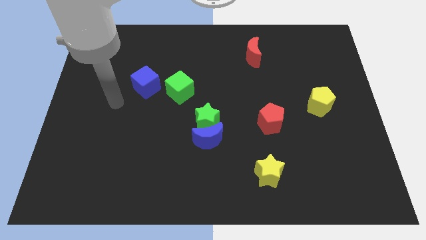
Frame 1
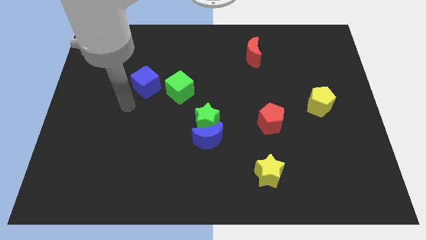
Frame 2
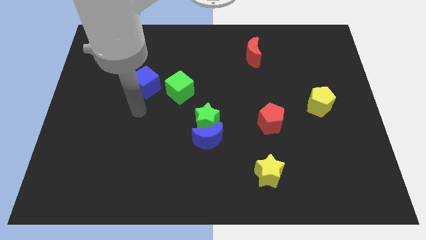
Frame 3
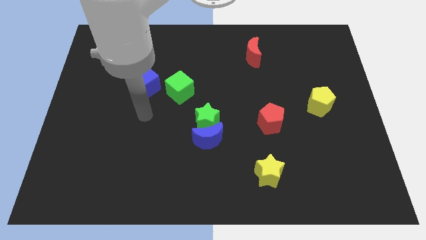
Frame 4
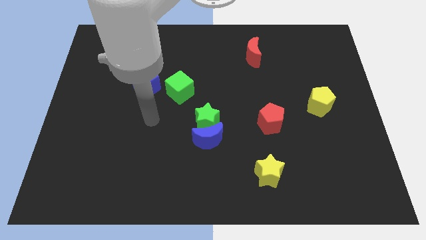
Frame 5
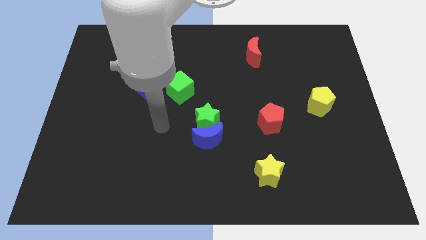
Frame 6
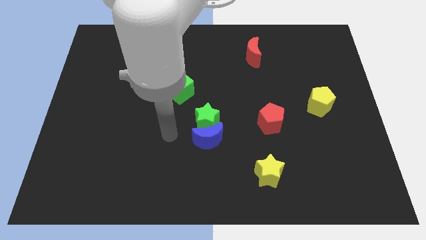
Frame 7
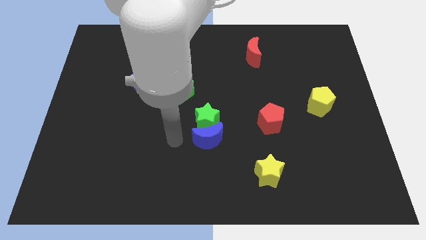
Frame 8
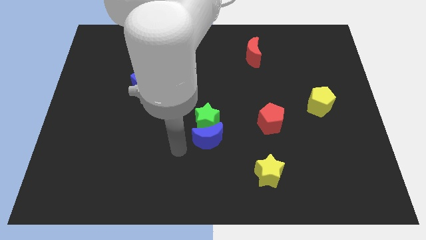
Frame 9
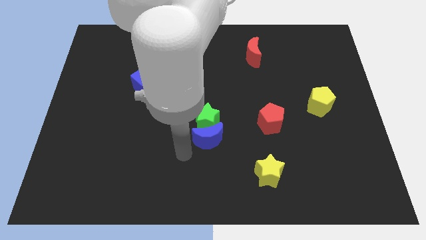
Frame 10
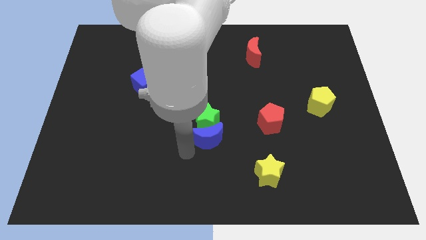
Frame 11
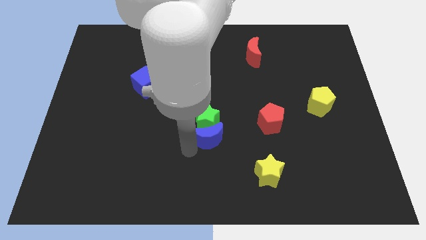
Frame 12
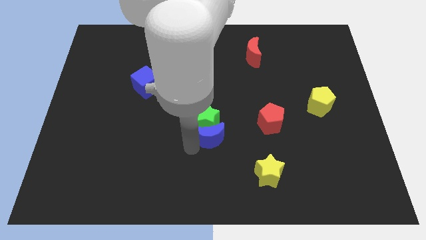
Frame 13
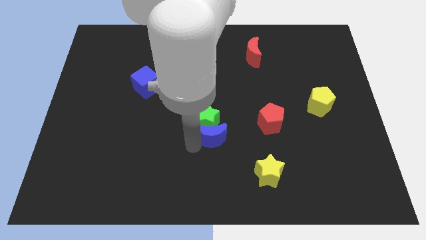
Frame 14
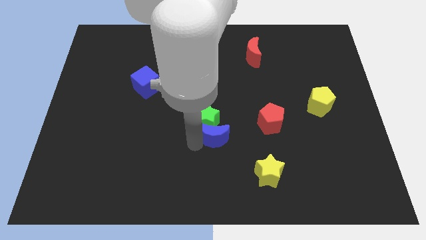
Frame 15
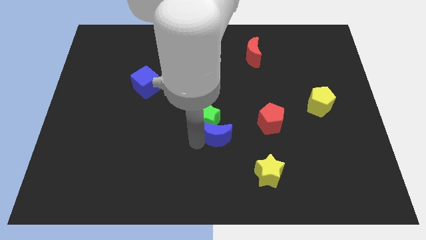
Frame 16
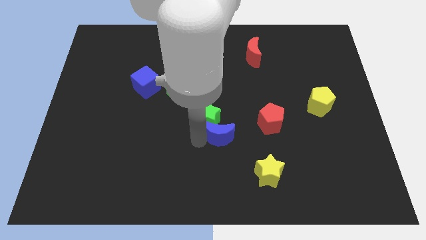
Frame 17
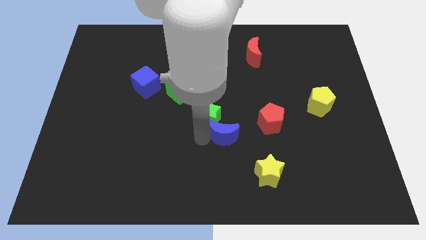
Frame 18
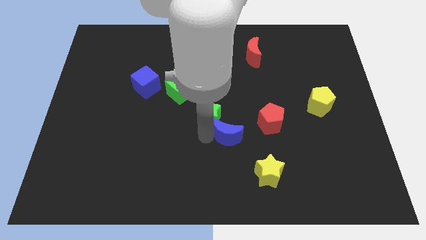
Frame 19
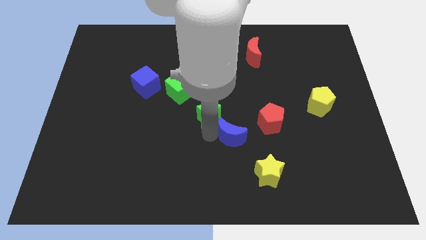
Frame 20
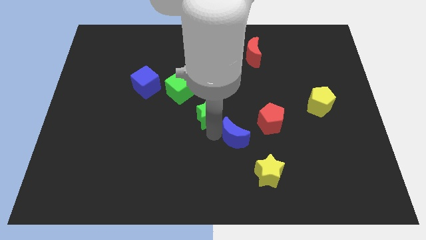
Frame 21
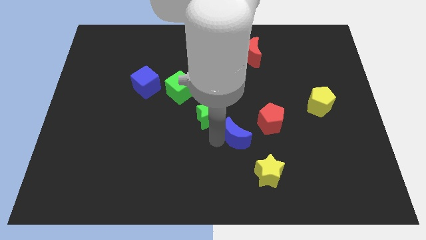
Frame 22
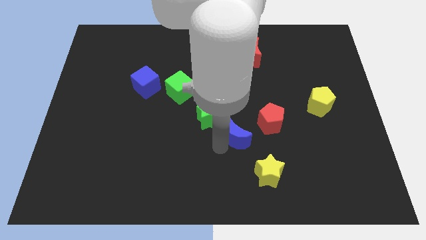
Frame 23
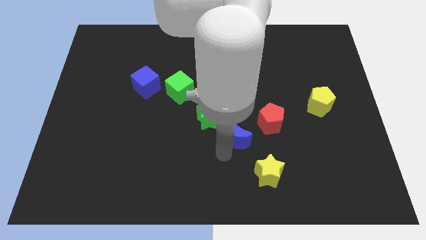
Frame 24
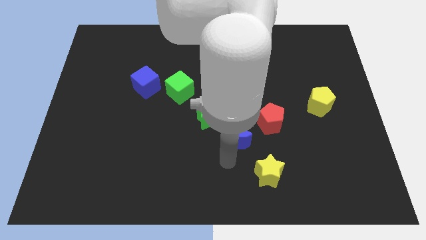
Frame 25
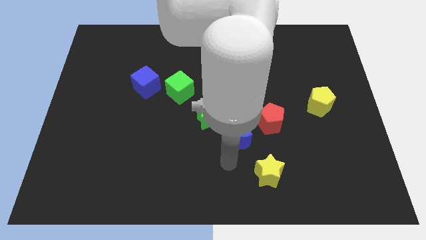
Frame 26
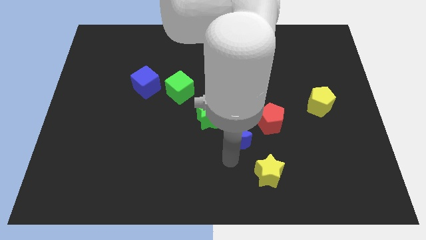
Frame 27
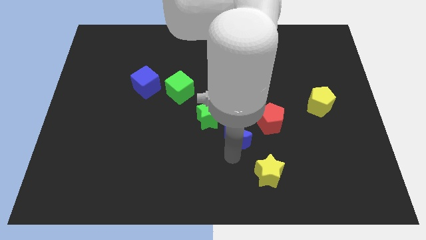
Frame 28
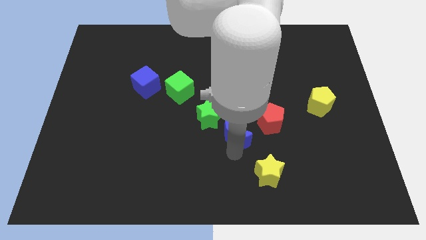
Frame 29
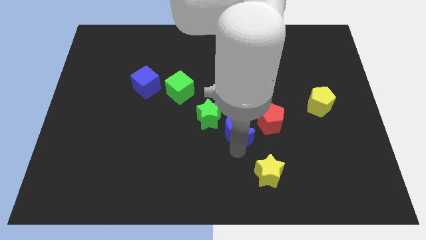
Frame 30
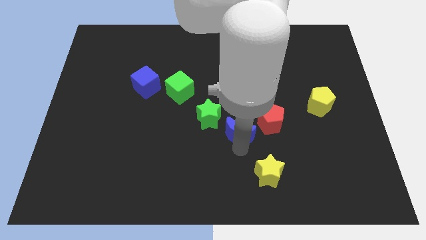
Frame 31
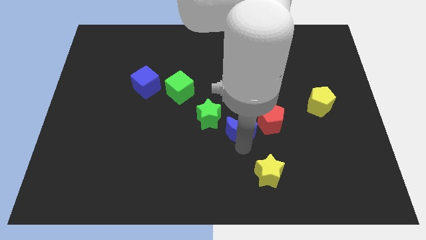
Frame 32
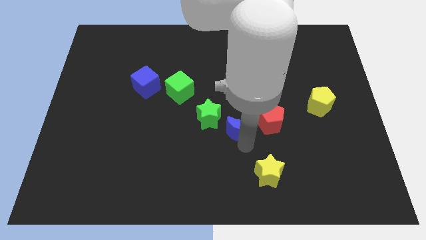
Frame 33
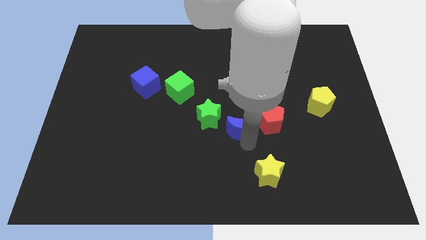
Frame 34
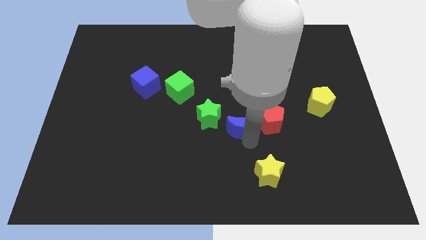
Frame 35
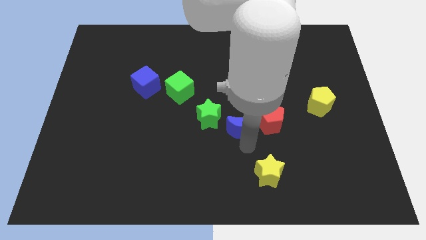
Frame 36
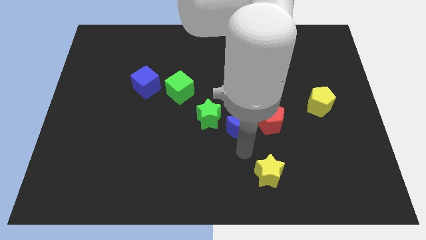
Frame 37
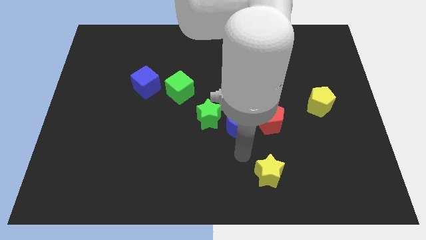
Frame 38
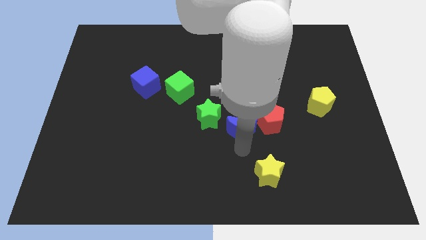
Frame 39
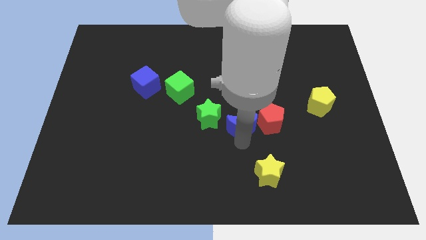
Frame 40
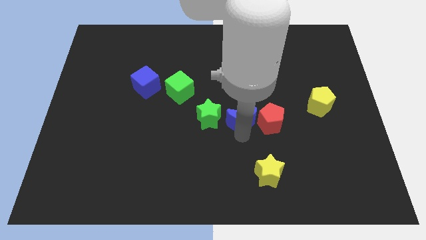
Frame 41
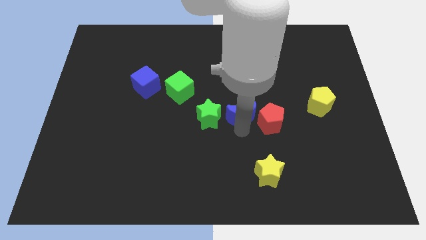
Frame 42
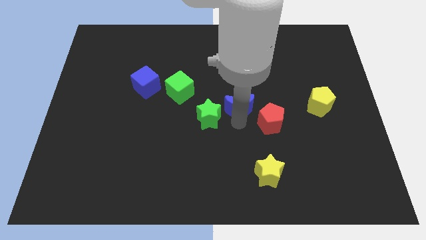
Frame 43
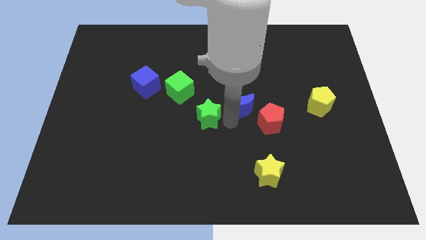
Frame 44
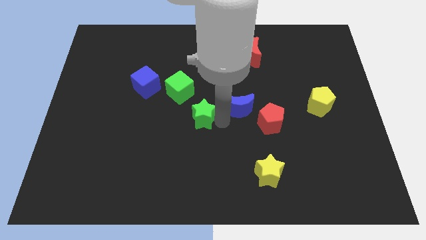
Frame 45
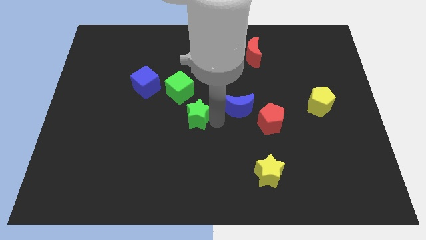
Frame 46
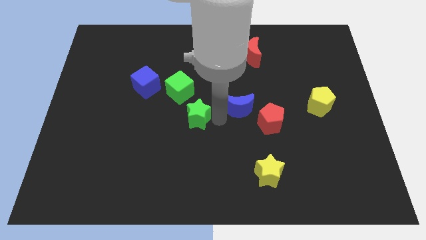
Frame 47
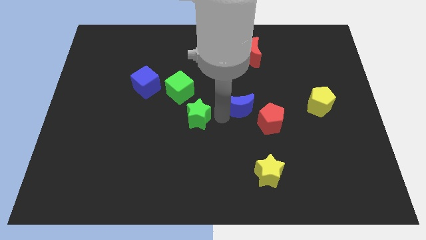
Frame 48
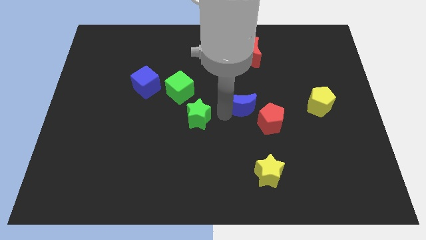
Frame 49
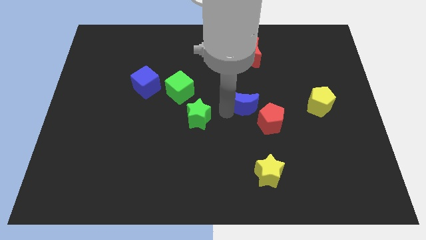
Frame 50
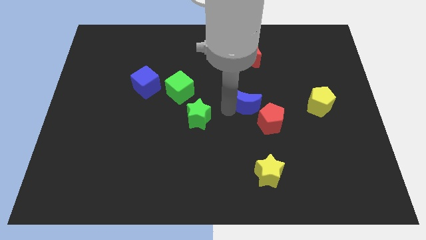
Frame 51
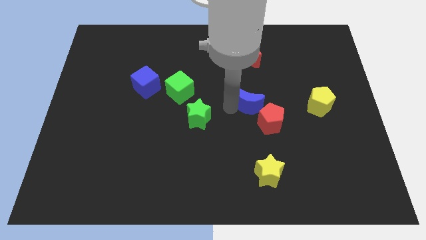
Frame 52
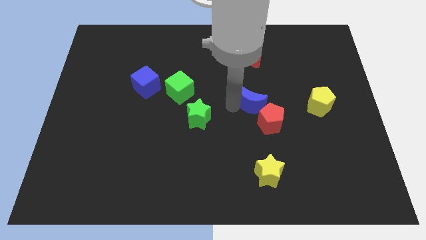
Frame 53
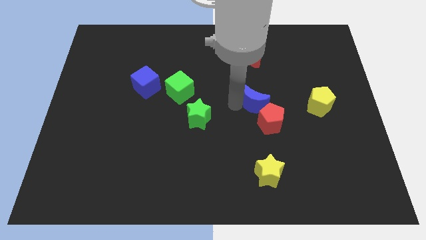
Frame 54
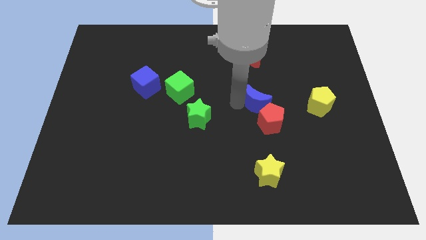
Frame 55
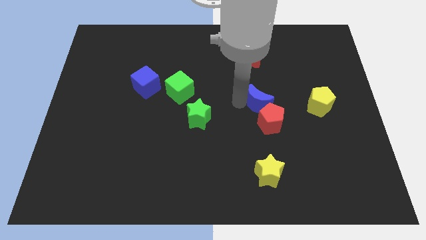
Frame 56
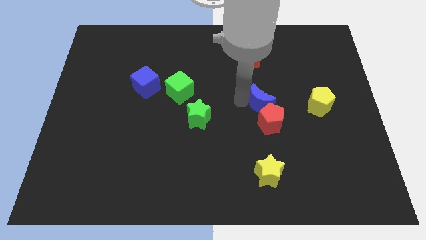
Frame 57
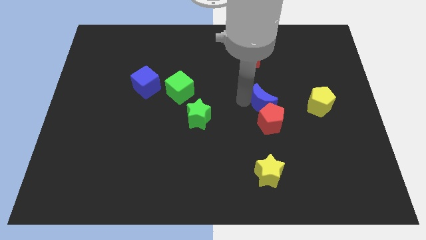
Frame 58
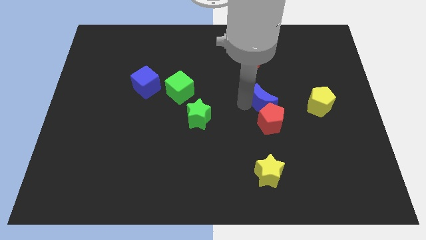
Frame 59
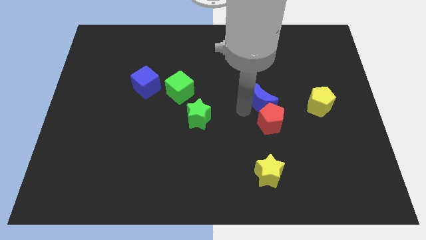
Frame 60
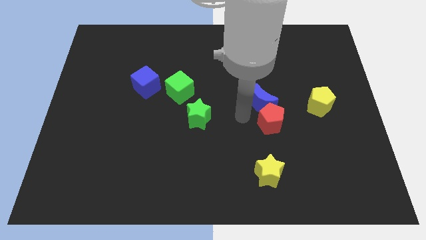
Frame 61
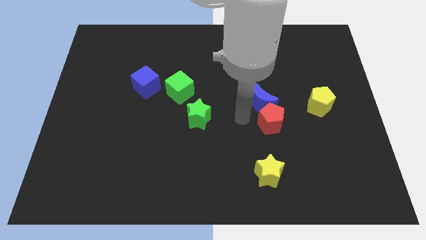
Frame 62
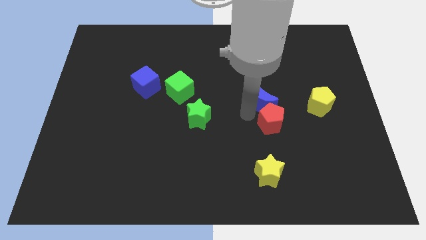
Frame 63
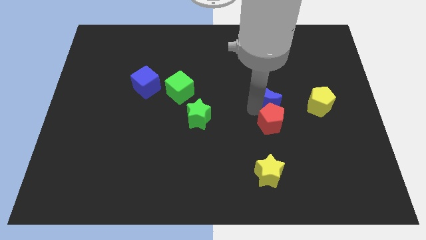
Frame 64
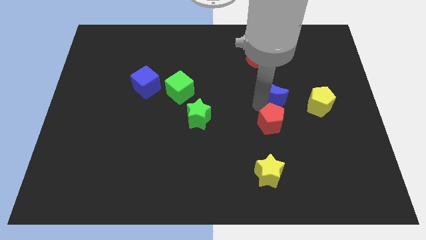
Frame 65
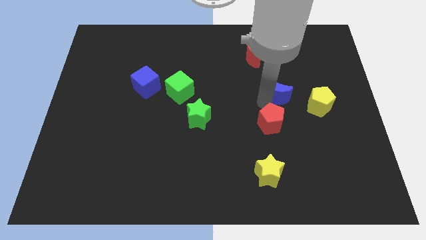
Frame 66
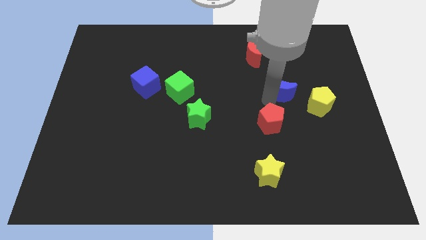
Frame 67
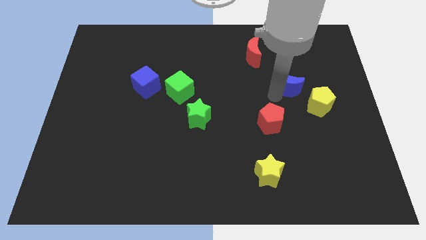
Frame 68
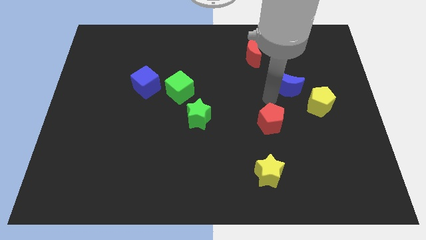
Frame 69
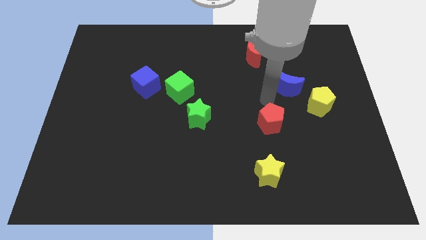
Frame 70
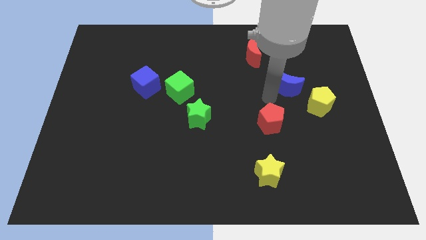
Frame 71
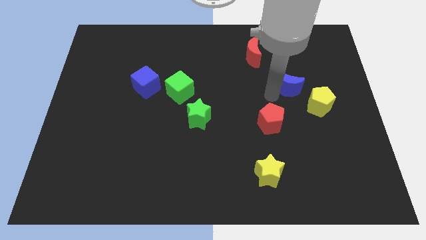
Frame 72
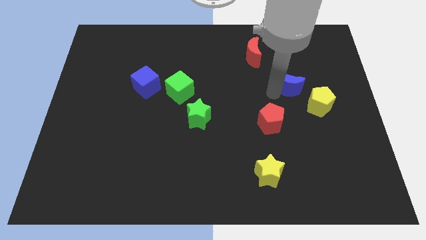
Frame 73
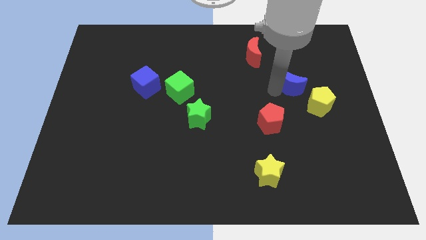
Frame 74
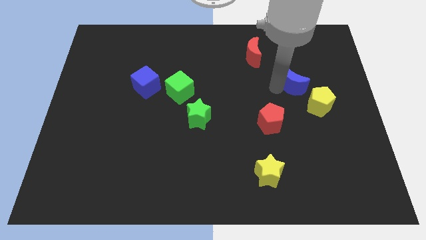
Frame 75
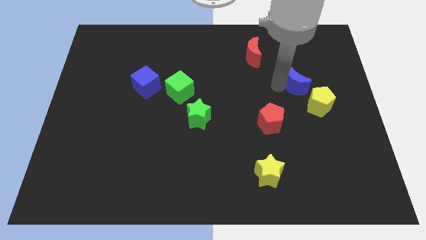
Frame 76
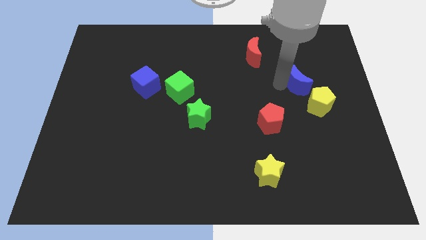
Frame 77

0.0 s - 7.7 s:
push the blue moon to the top of the yellow pentagon
